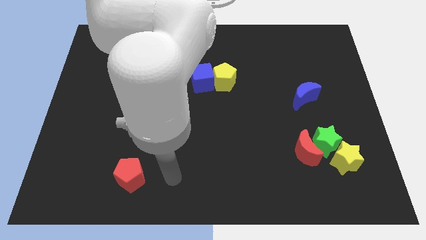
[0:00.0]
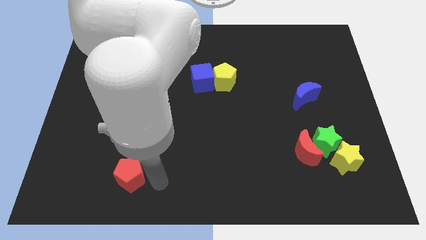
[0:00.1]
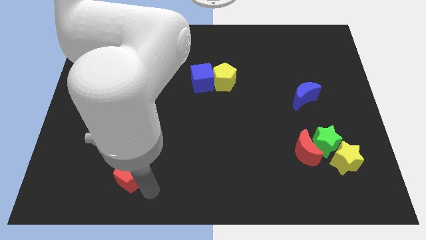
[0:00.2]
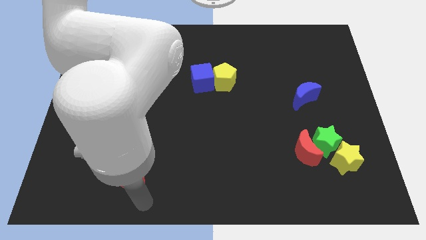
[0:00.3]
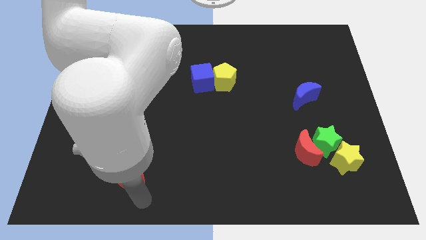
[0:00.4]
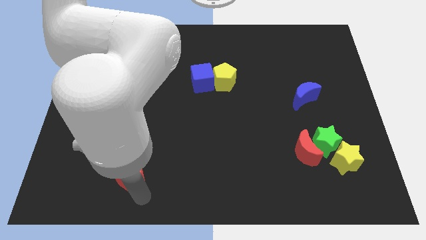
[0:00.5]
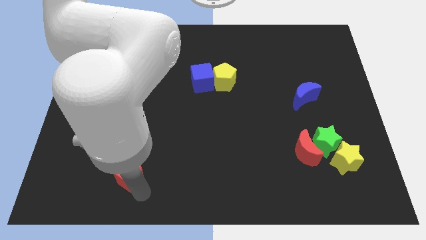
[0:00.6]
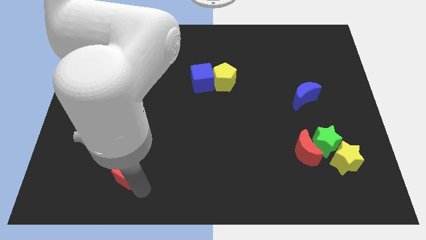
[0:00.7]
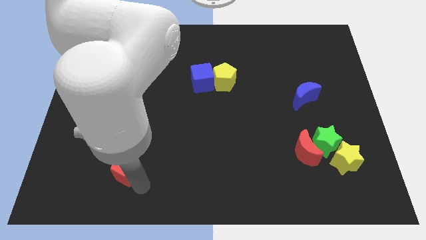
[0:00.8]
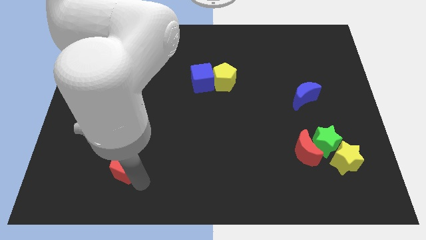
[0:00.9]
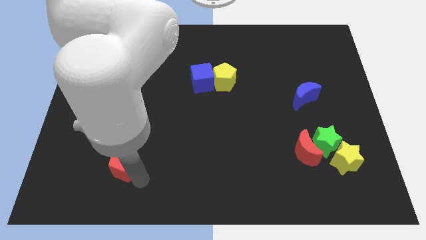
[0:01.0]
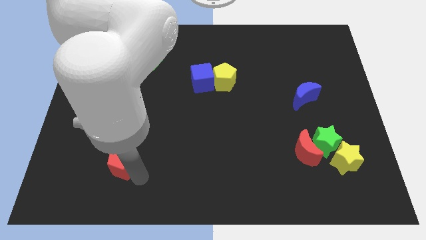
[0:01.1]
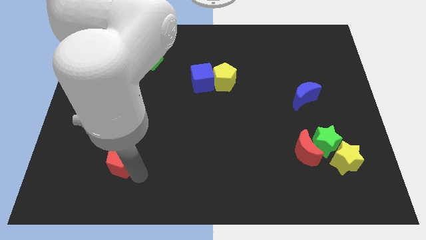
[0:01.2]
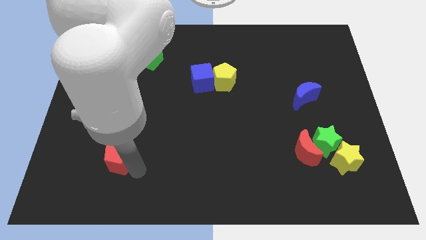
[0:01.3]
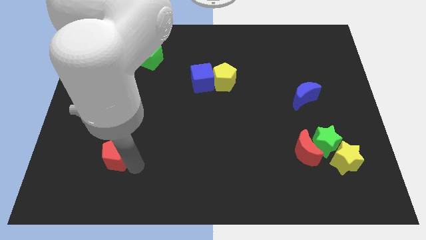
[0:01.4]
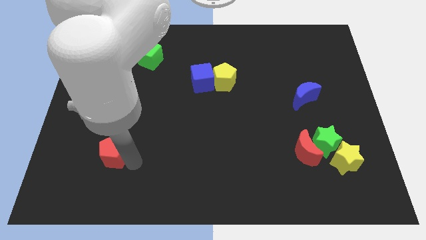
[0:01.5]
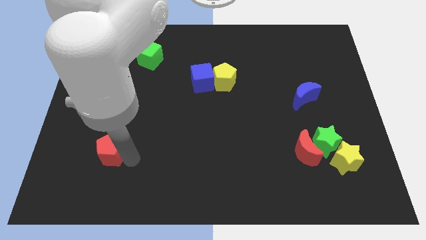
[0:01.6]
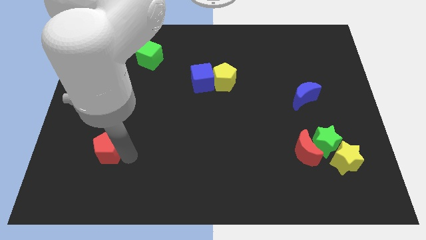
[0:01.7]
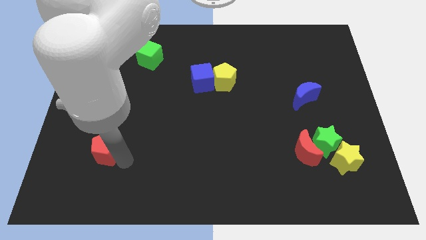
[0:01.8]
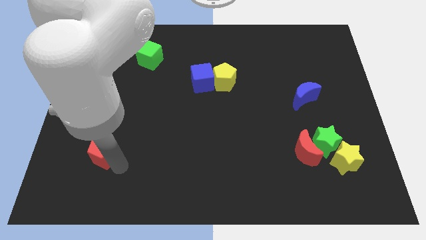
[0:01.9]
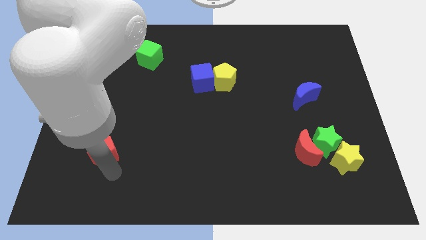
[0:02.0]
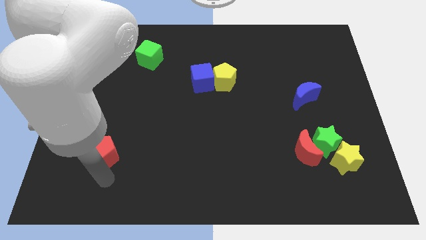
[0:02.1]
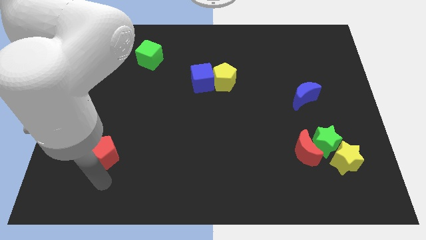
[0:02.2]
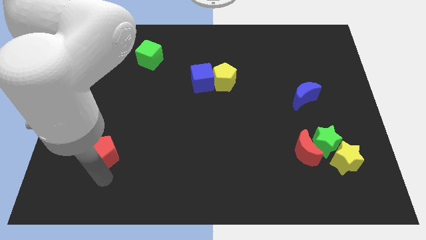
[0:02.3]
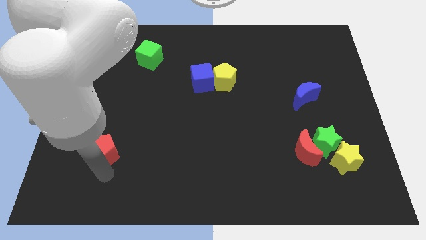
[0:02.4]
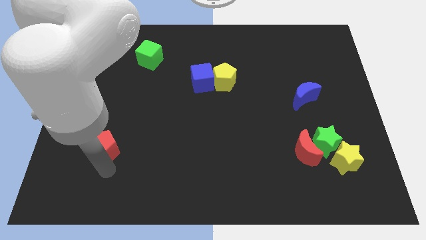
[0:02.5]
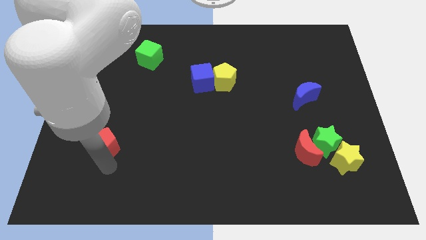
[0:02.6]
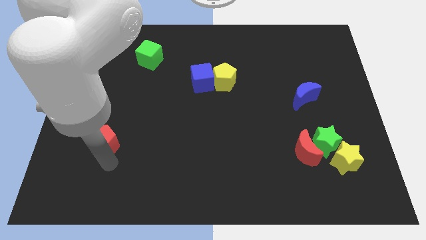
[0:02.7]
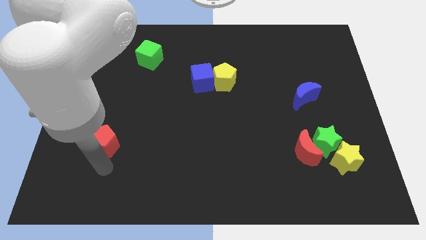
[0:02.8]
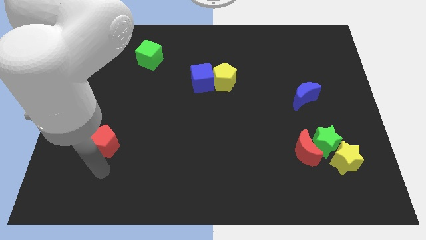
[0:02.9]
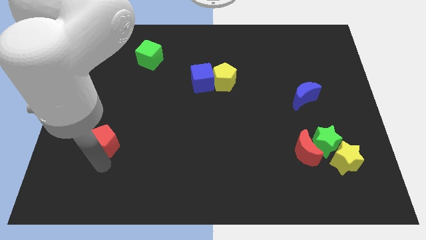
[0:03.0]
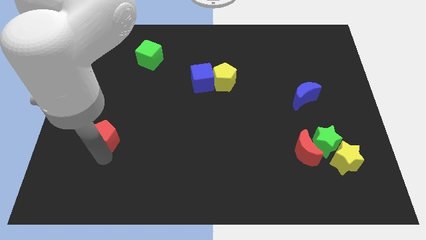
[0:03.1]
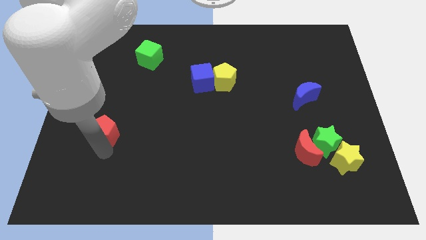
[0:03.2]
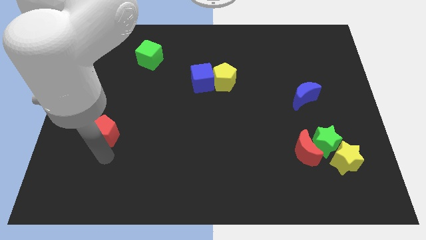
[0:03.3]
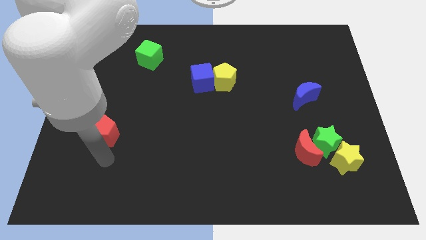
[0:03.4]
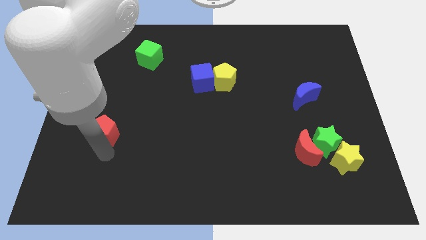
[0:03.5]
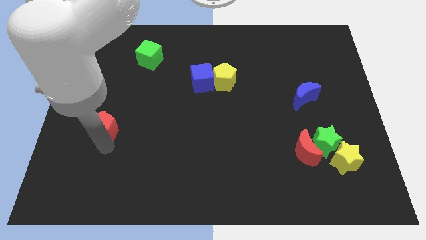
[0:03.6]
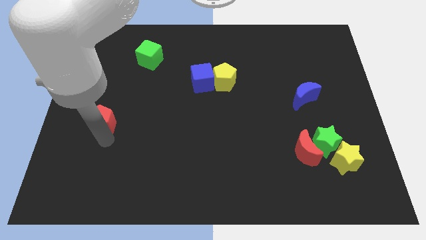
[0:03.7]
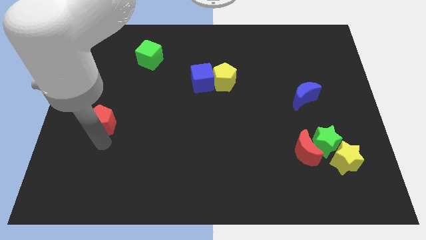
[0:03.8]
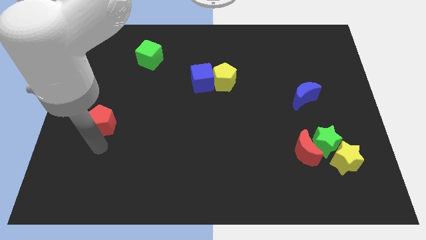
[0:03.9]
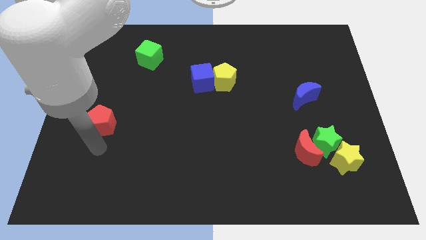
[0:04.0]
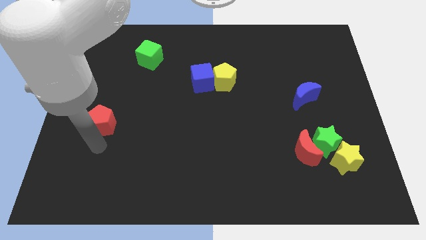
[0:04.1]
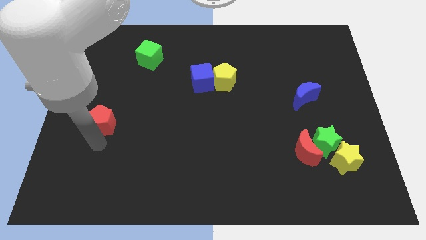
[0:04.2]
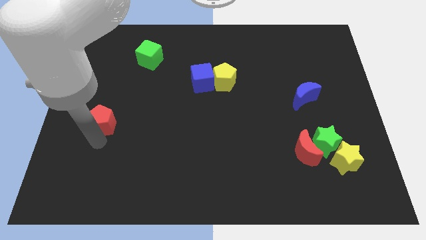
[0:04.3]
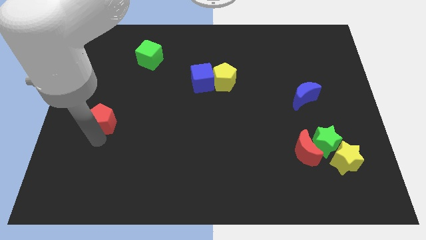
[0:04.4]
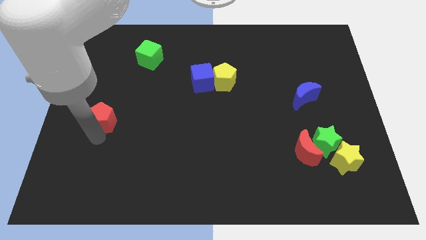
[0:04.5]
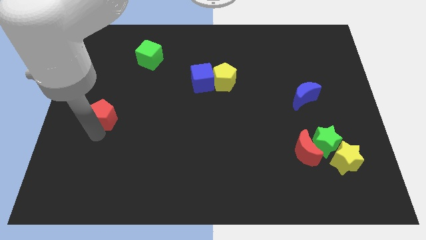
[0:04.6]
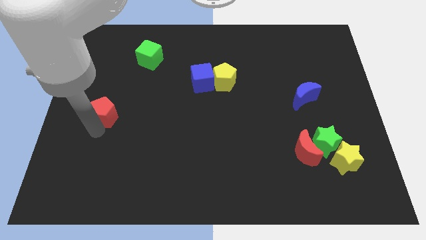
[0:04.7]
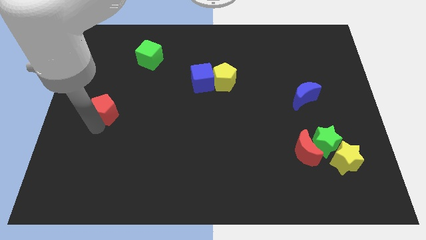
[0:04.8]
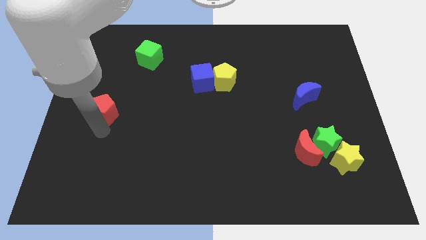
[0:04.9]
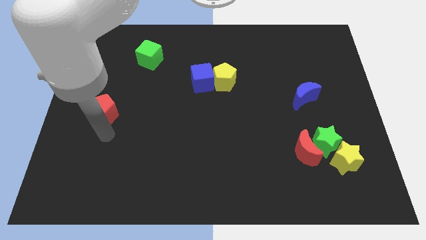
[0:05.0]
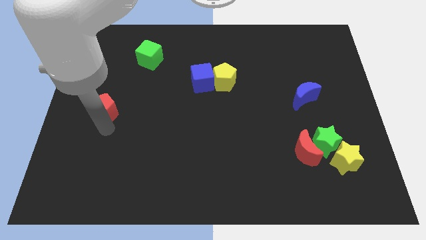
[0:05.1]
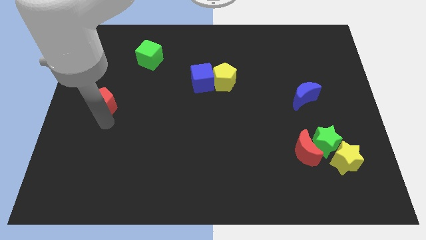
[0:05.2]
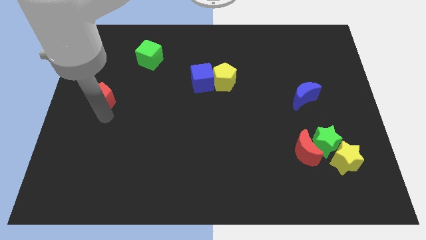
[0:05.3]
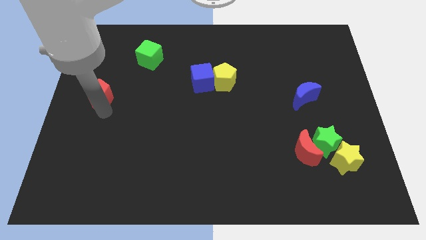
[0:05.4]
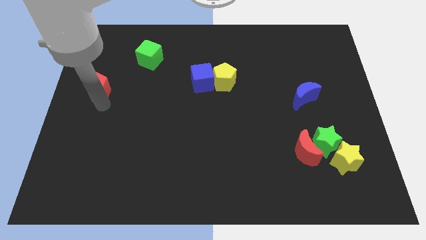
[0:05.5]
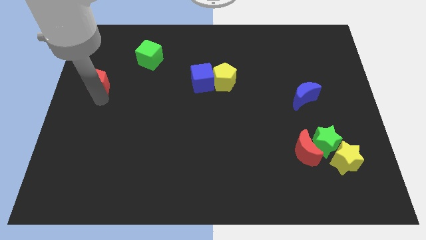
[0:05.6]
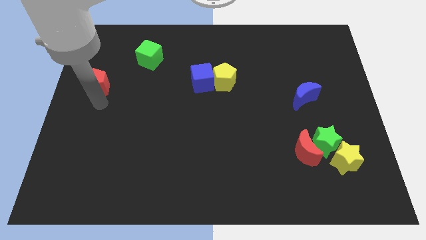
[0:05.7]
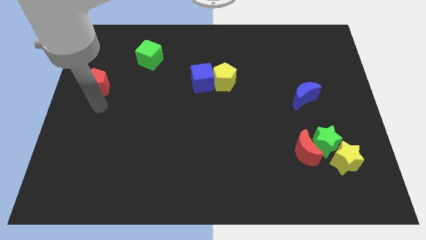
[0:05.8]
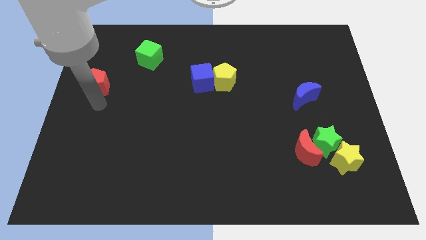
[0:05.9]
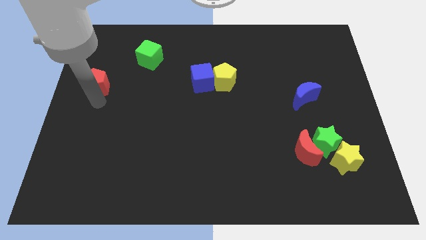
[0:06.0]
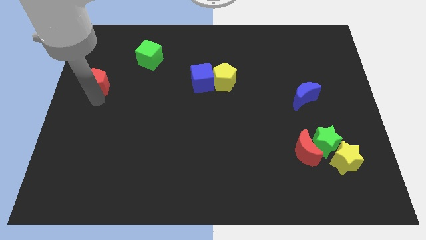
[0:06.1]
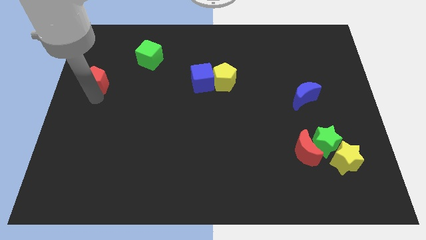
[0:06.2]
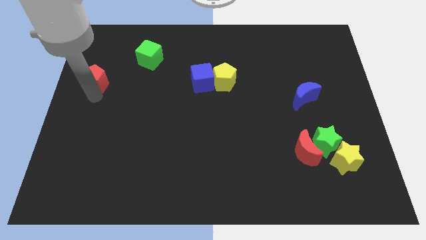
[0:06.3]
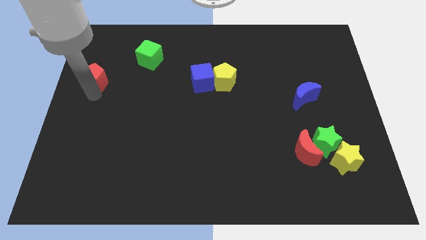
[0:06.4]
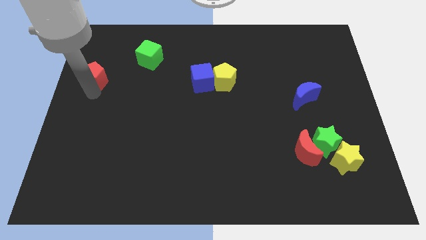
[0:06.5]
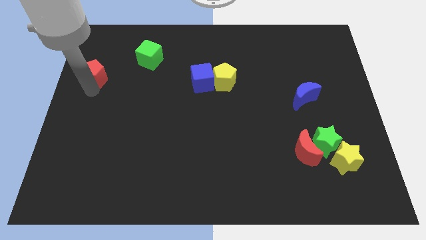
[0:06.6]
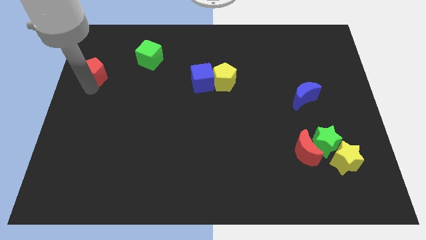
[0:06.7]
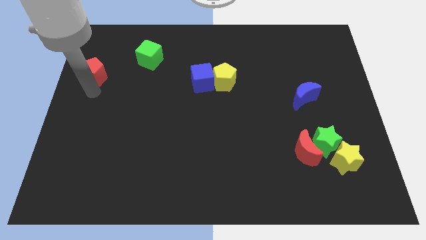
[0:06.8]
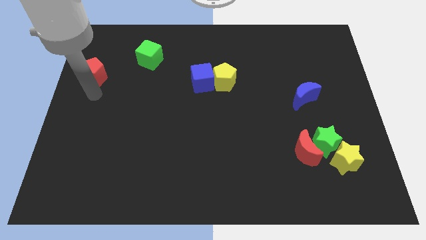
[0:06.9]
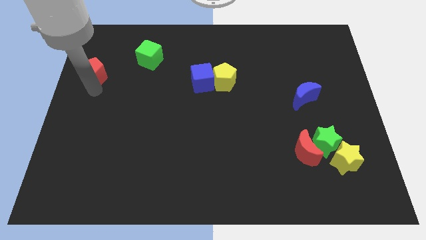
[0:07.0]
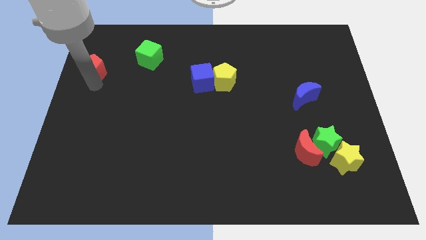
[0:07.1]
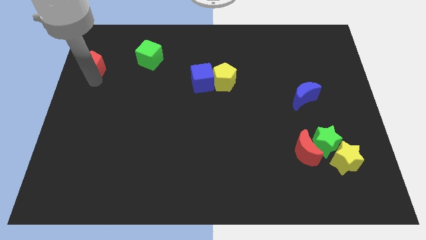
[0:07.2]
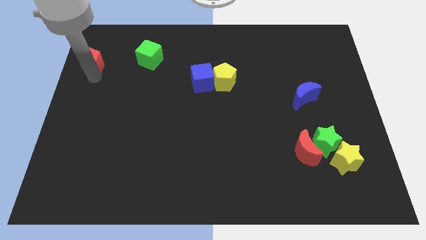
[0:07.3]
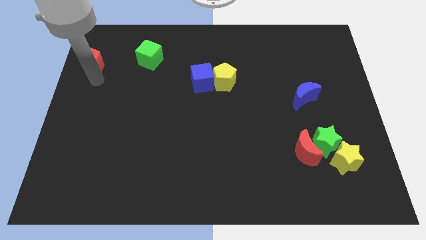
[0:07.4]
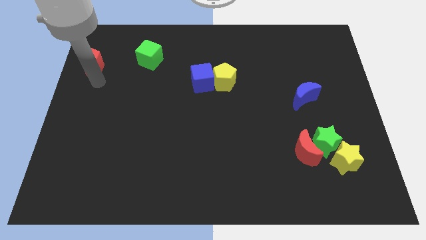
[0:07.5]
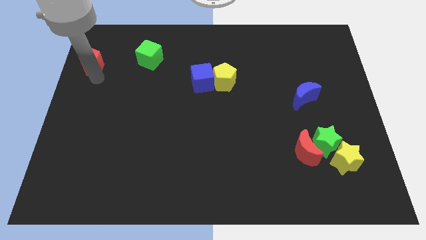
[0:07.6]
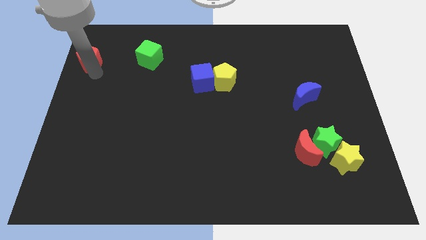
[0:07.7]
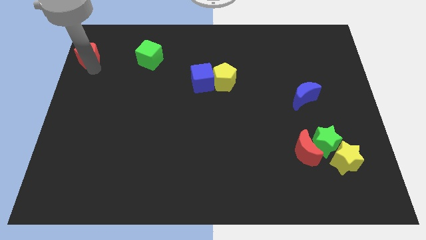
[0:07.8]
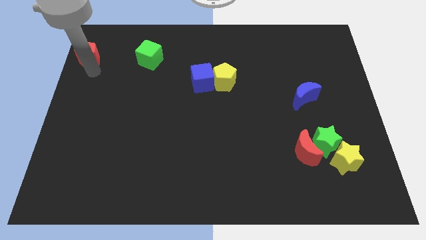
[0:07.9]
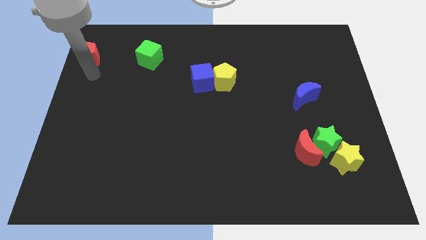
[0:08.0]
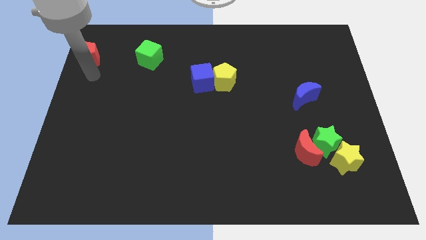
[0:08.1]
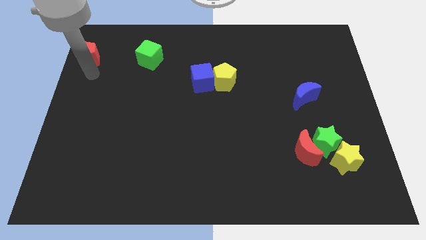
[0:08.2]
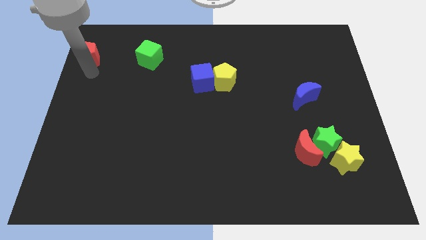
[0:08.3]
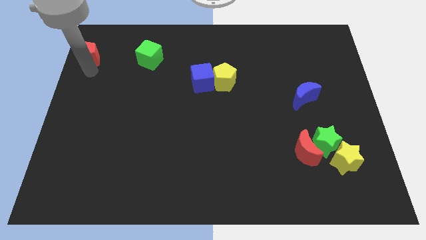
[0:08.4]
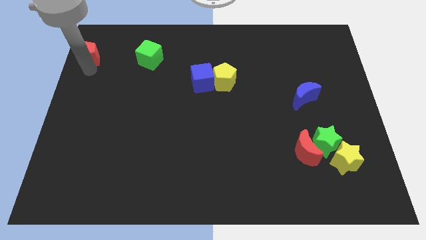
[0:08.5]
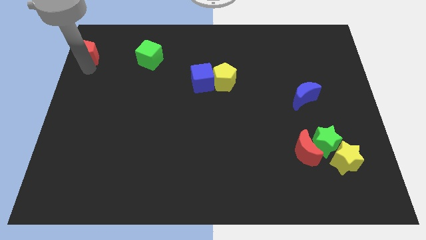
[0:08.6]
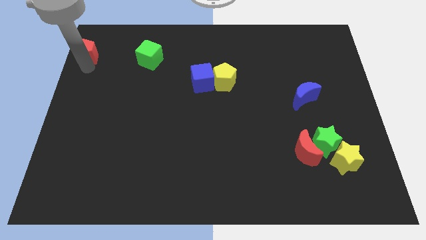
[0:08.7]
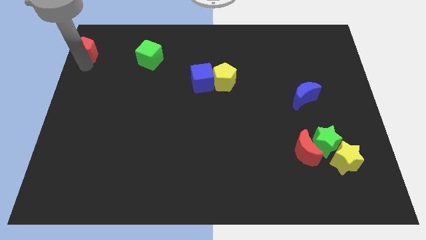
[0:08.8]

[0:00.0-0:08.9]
slide the red pentagon to the top left of the board
